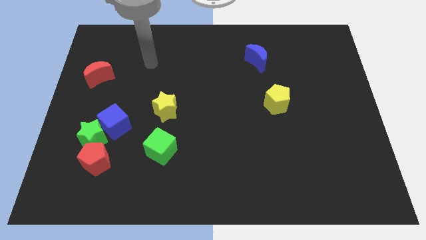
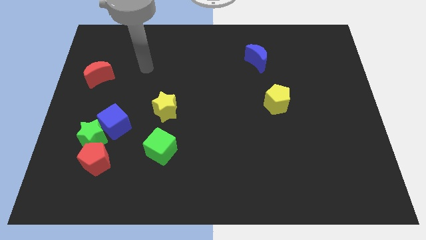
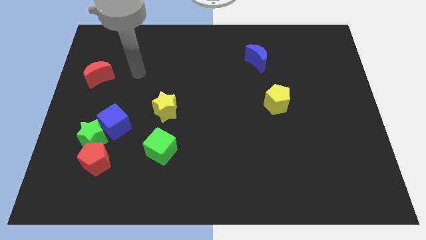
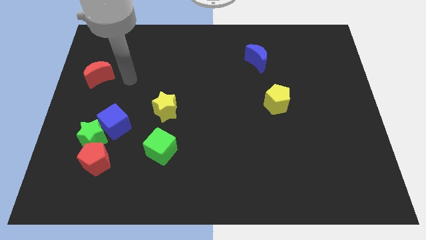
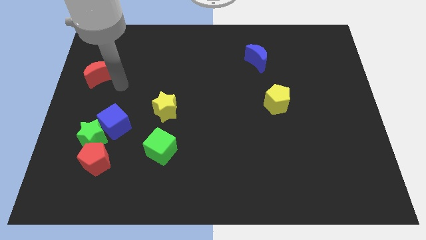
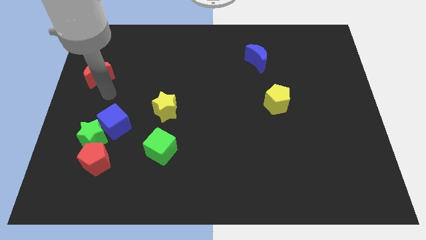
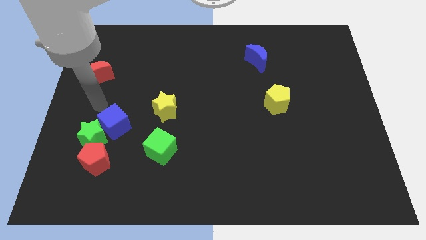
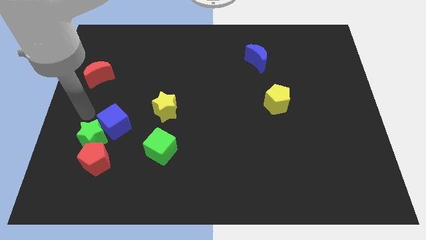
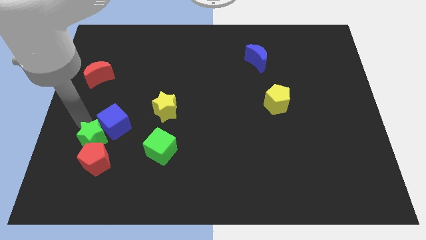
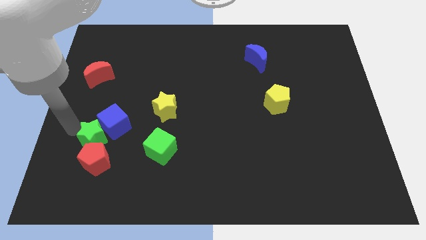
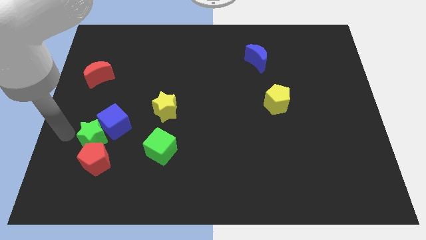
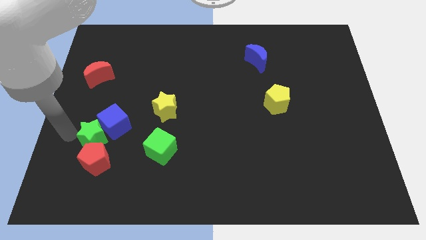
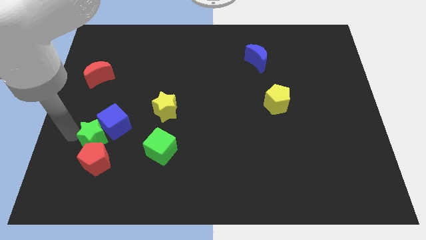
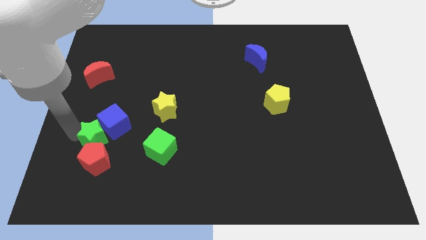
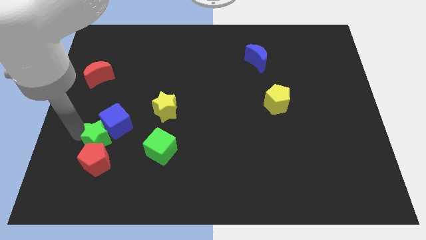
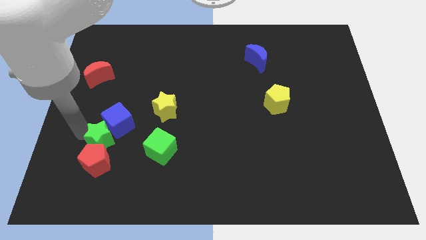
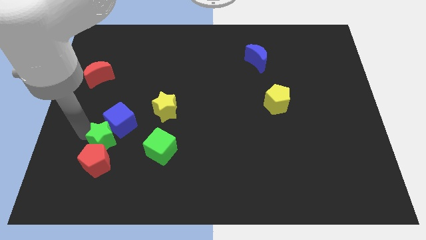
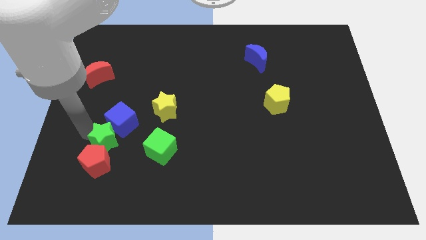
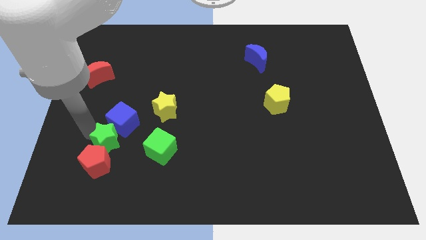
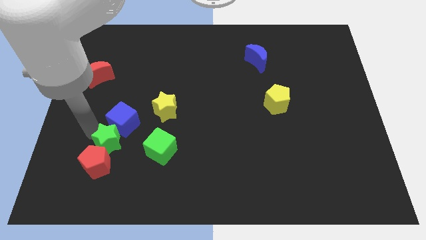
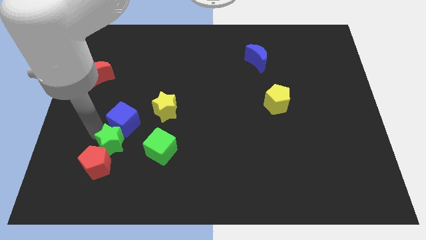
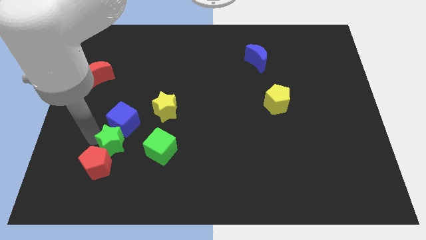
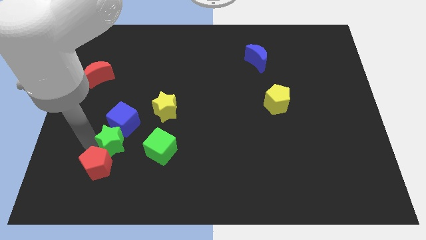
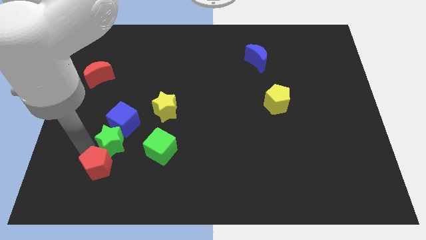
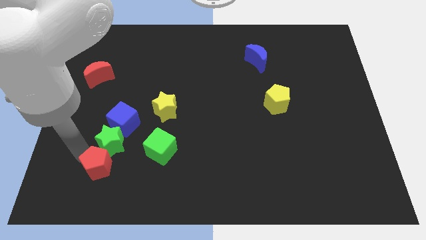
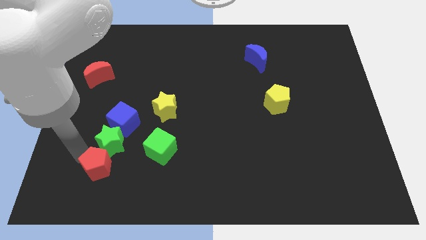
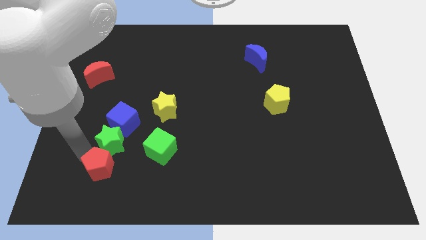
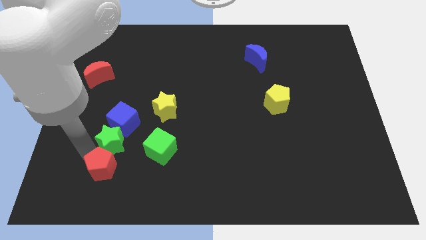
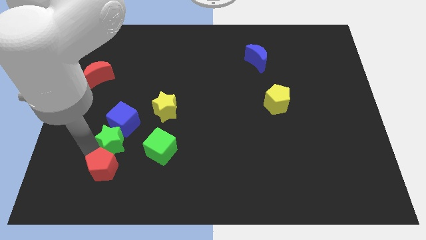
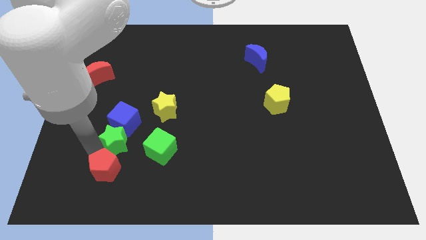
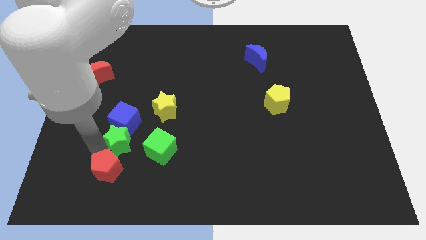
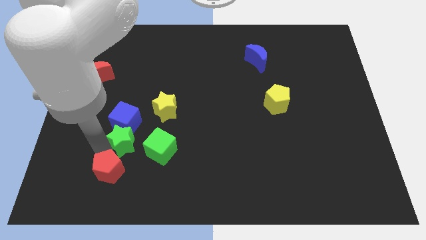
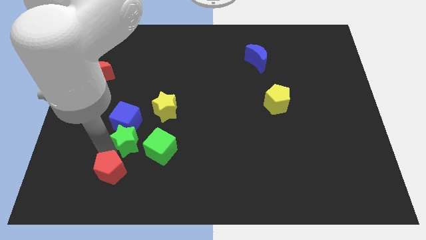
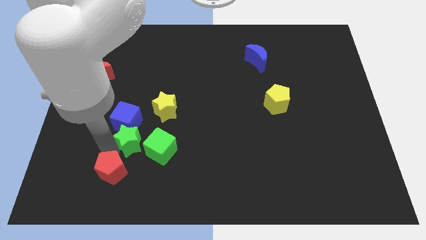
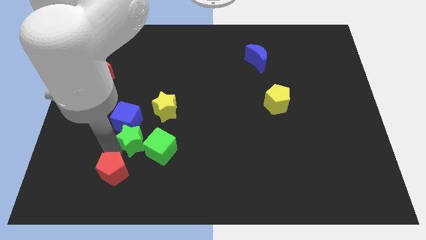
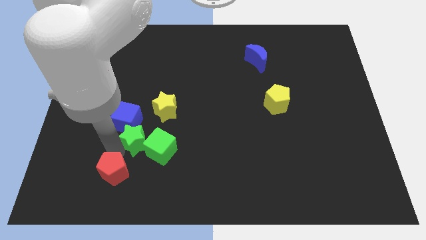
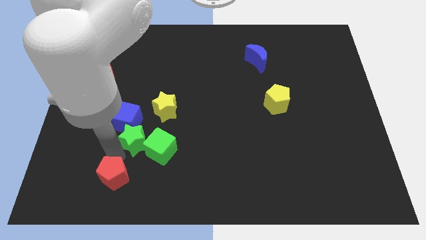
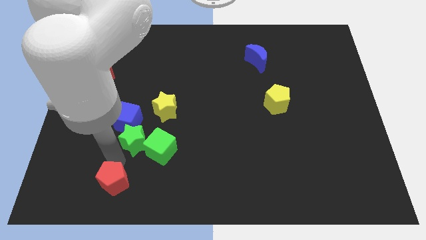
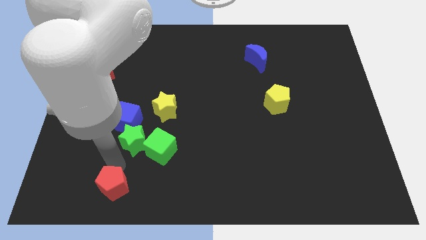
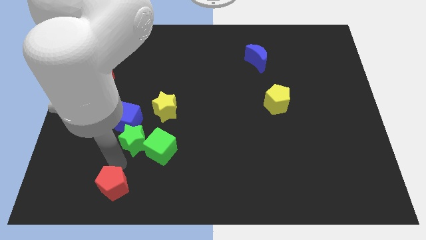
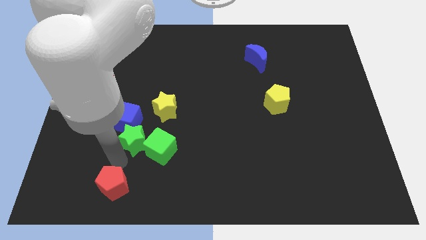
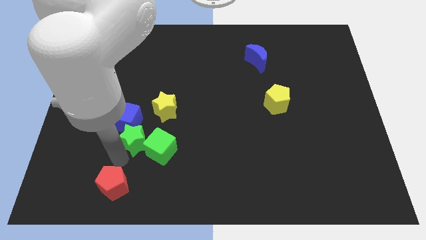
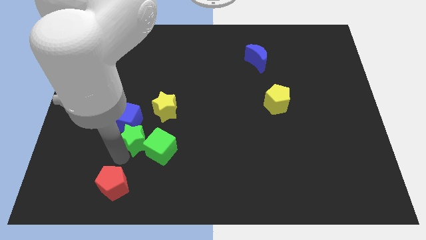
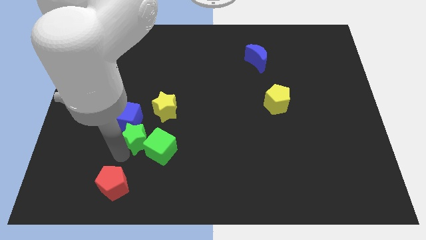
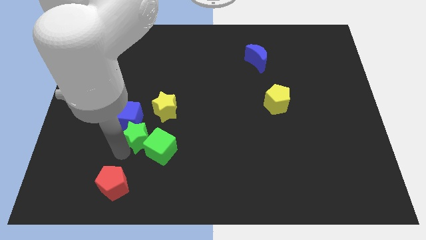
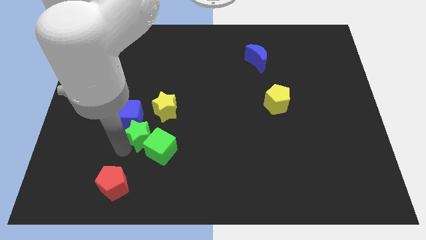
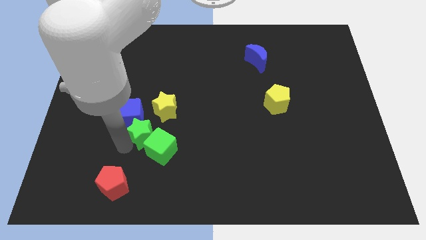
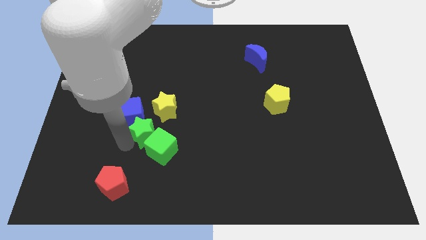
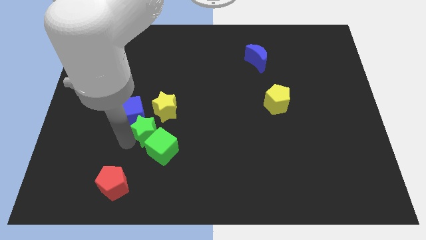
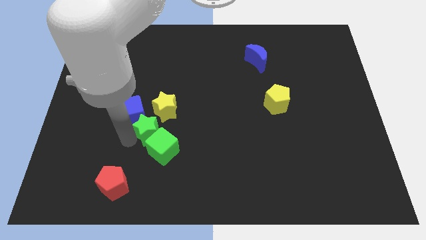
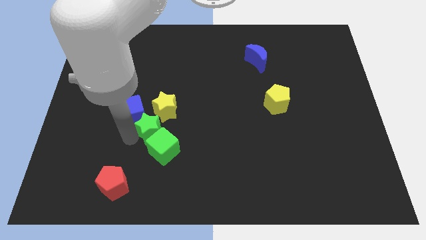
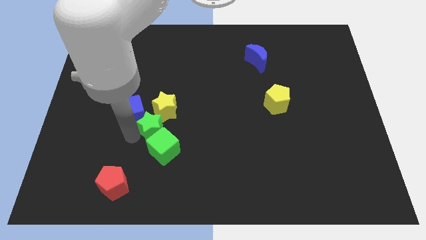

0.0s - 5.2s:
push the green star close to the yellow star

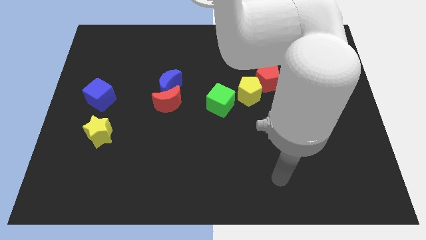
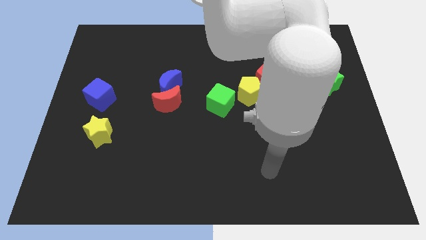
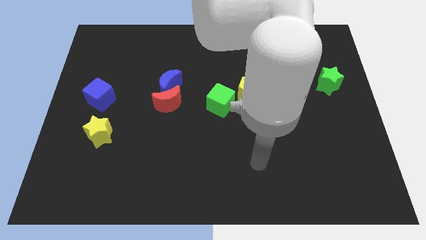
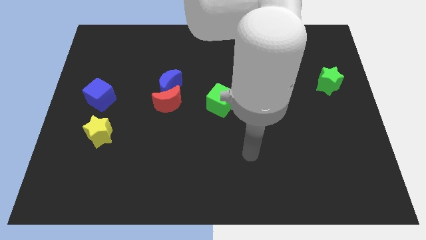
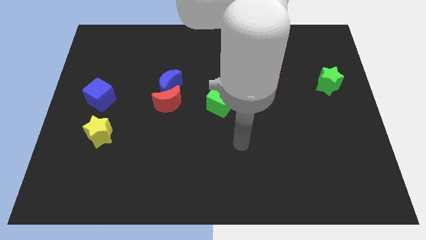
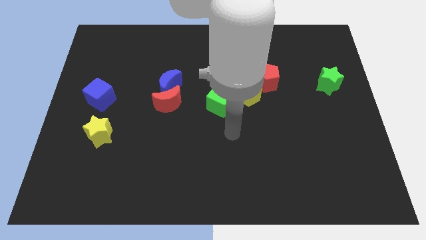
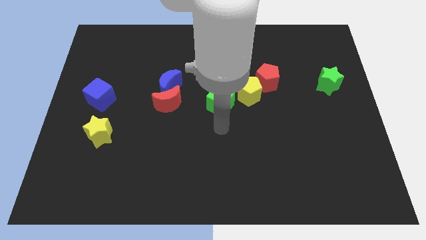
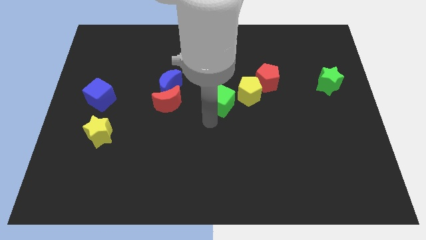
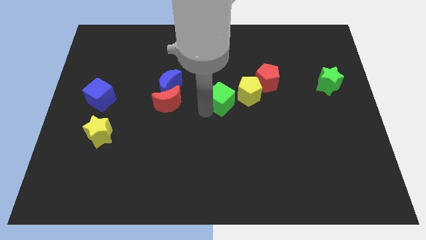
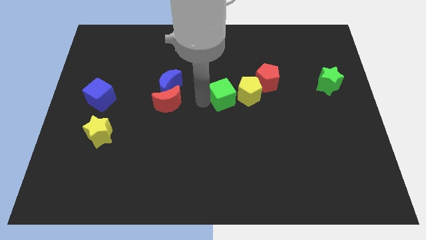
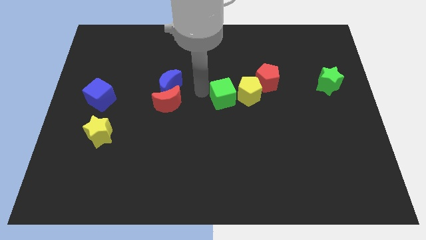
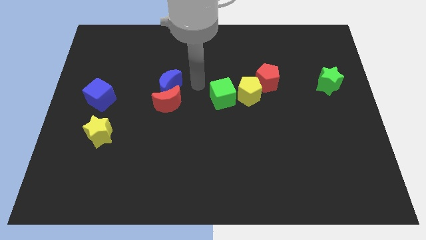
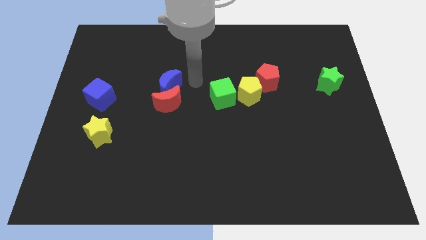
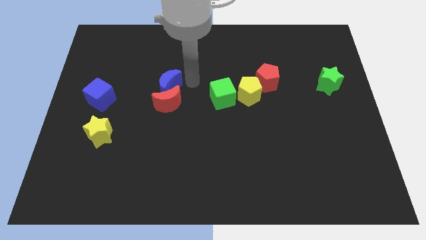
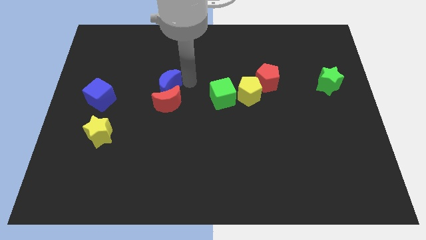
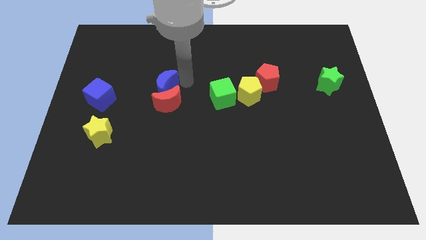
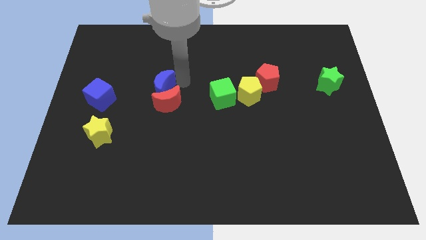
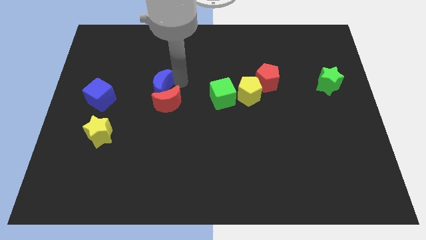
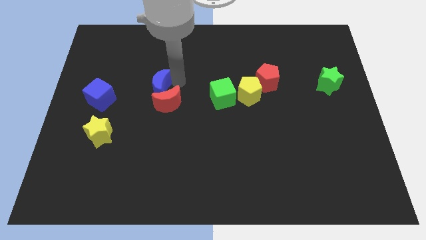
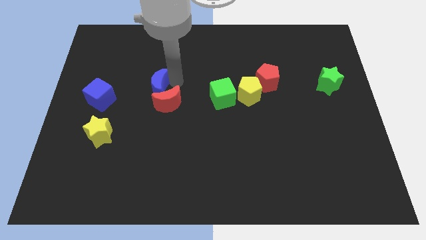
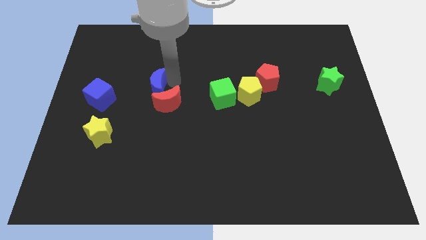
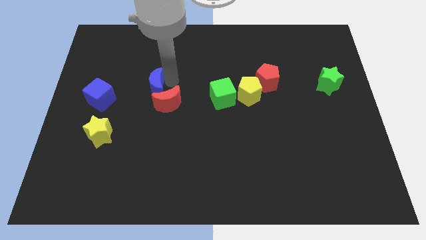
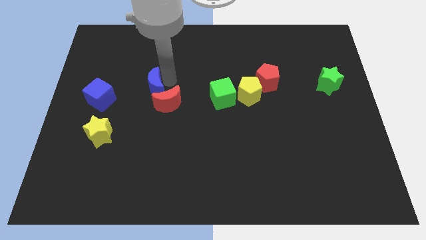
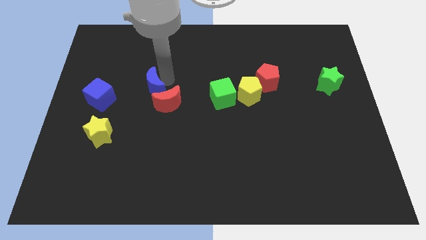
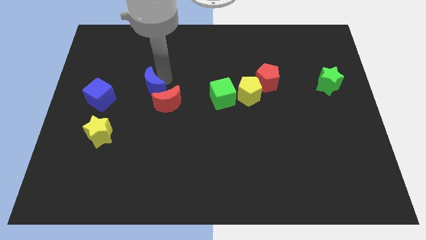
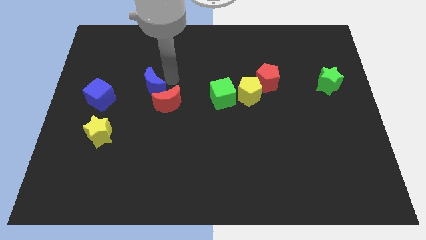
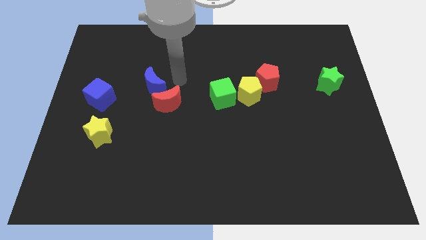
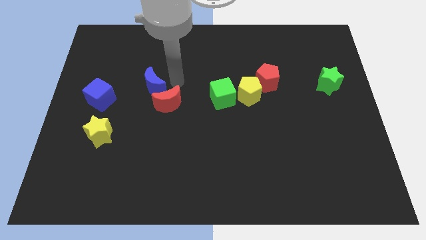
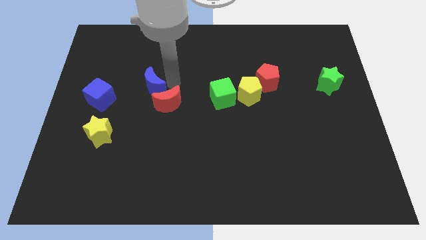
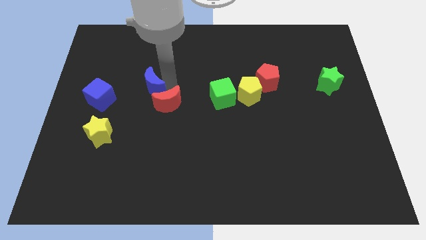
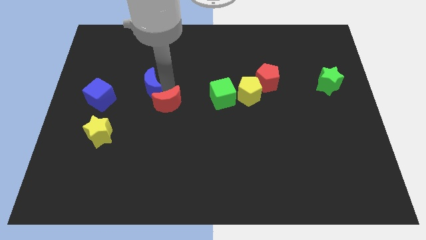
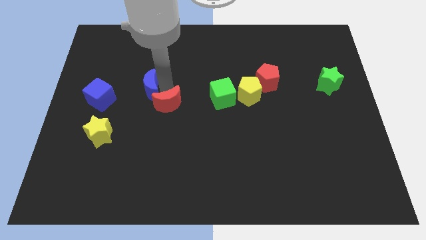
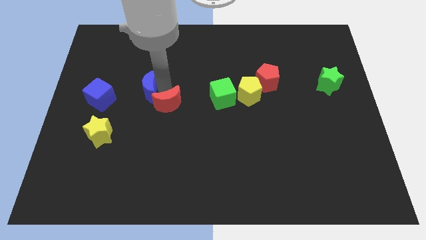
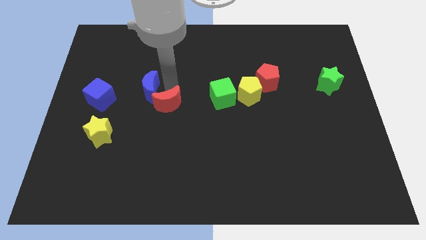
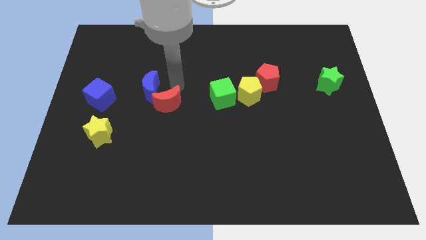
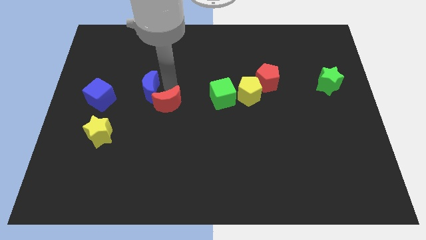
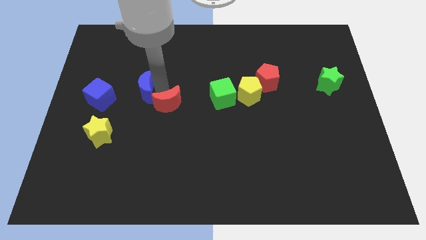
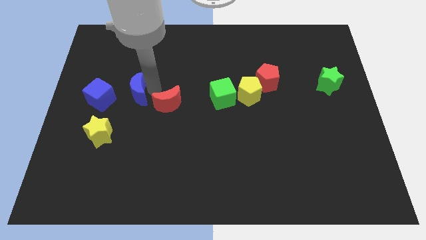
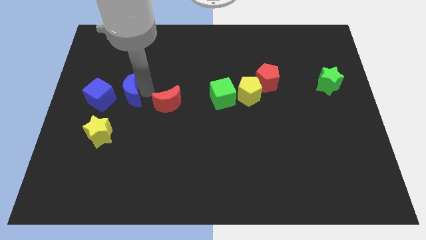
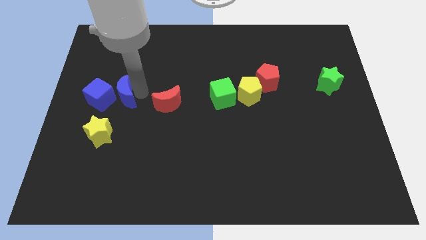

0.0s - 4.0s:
push the blue moon close to the blue cube
